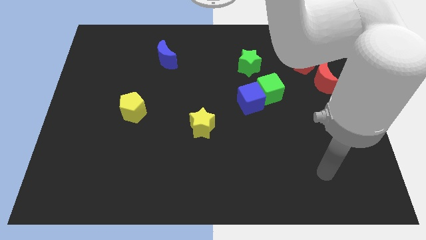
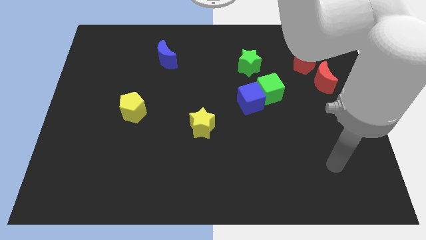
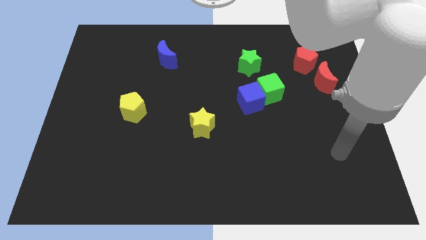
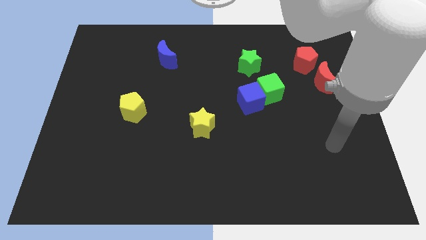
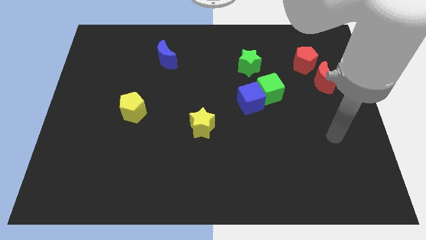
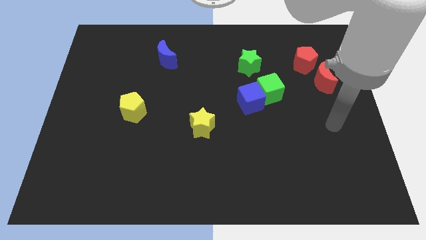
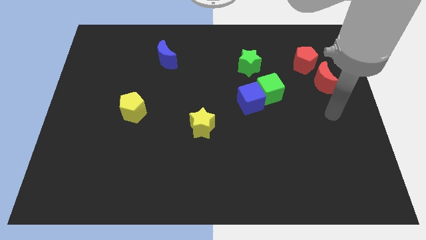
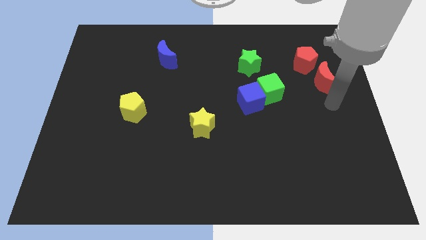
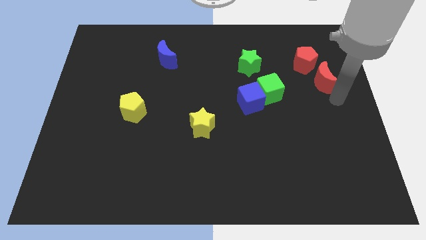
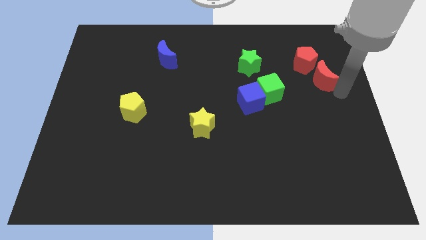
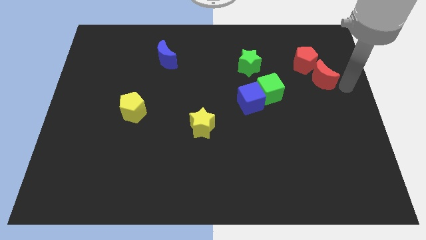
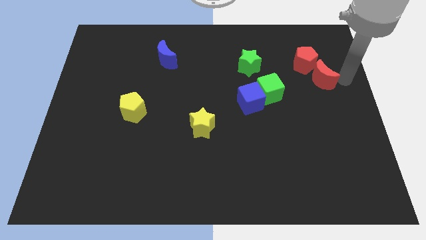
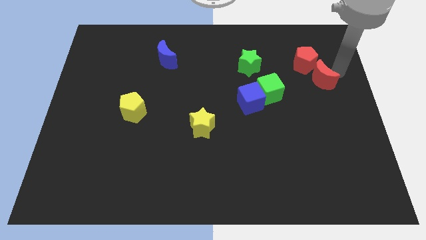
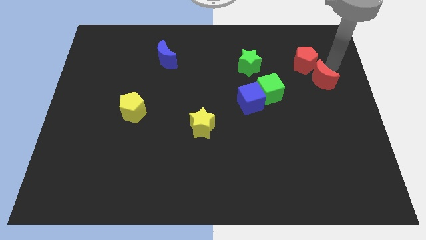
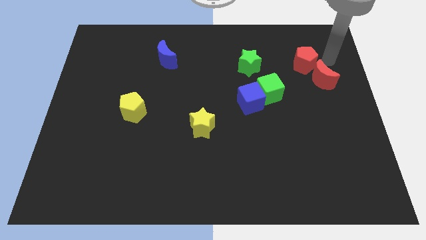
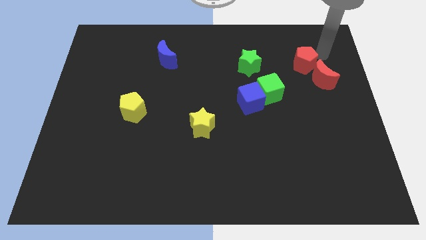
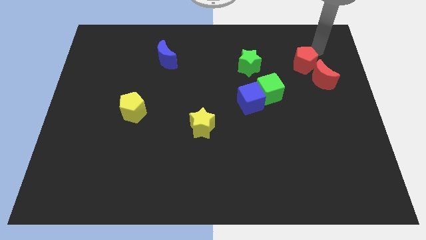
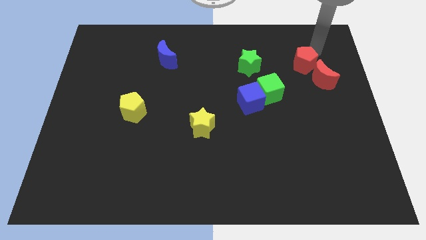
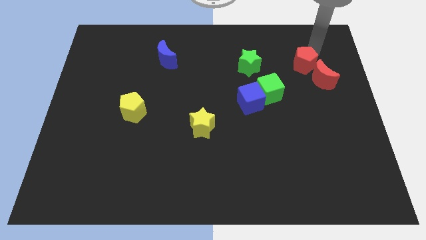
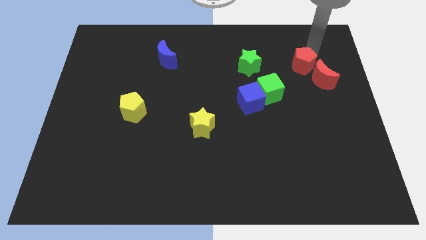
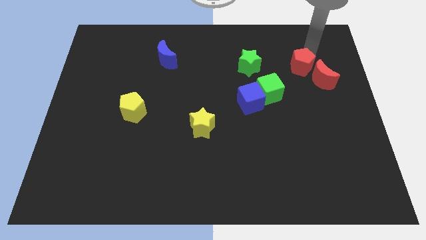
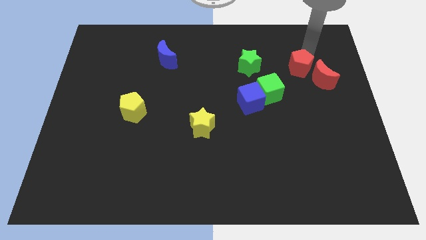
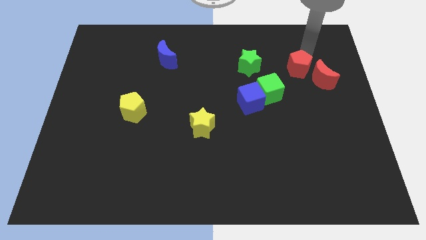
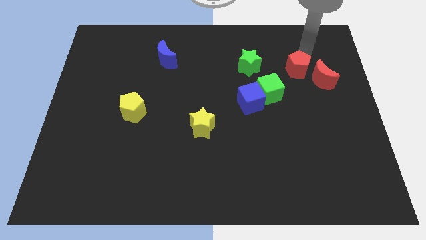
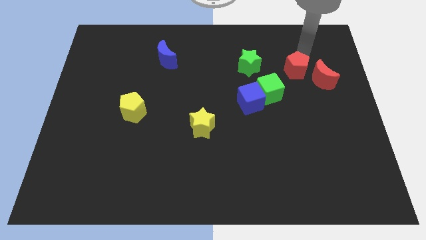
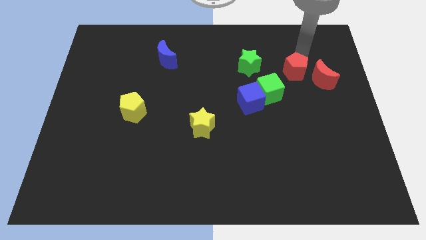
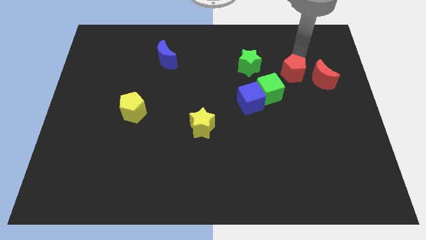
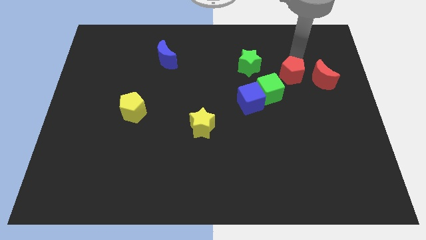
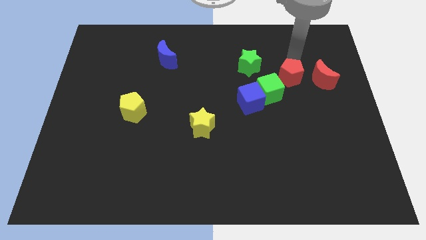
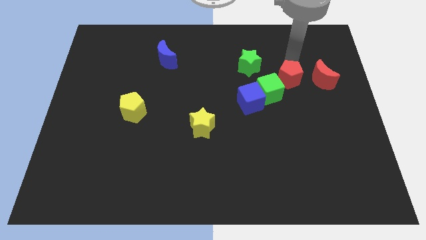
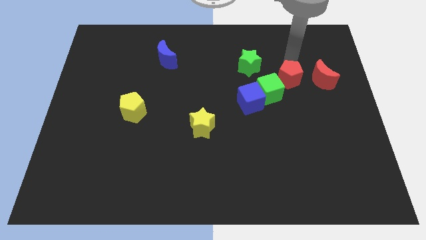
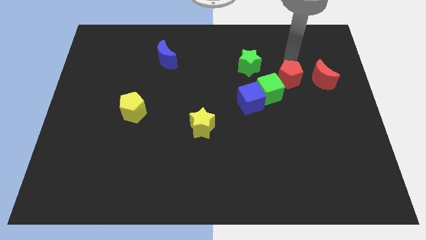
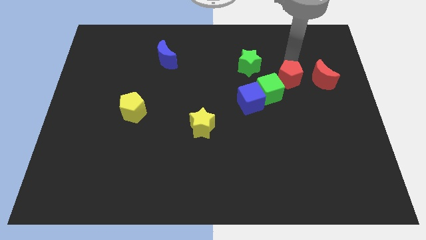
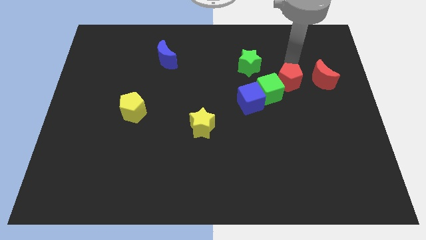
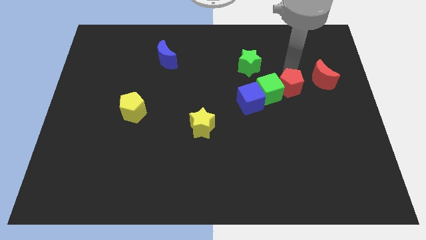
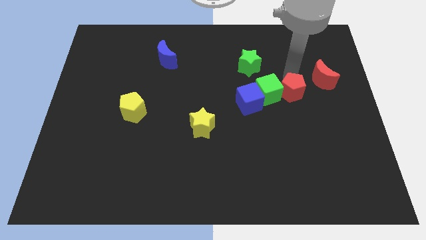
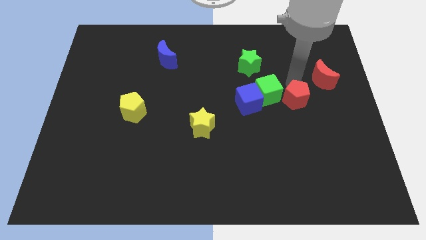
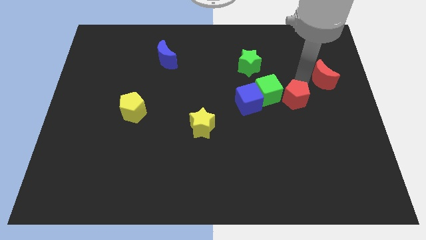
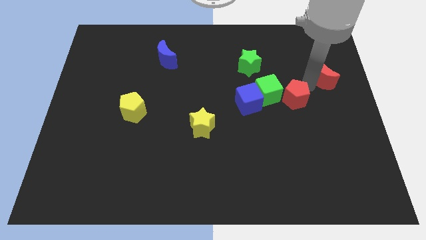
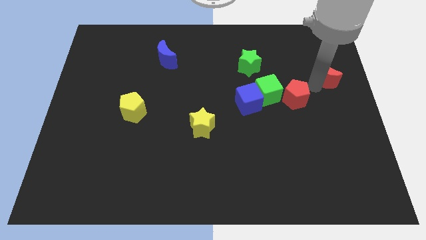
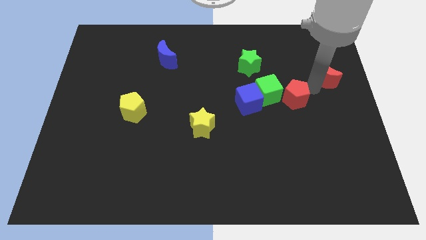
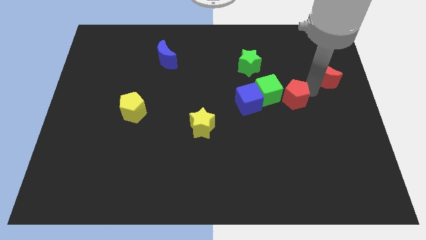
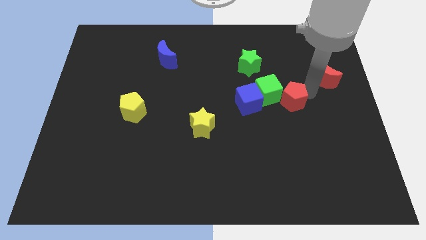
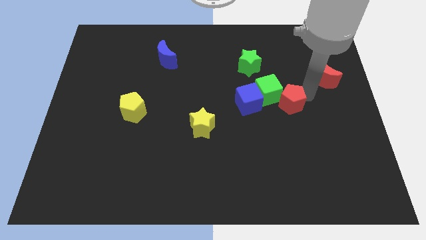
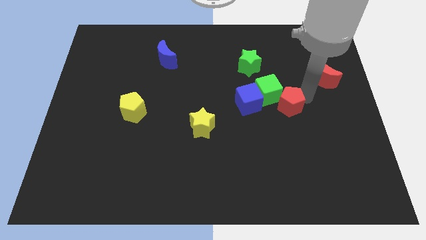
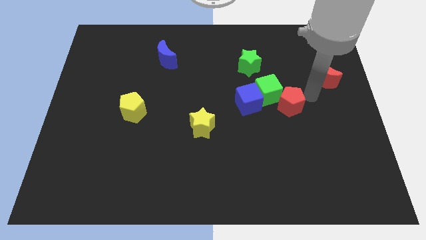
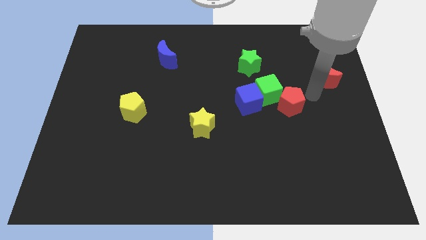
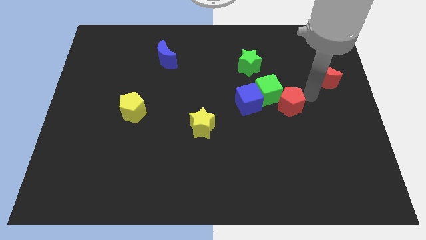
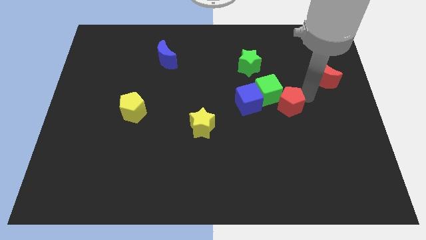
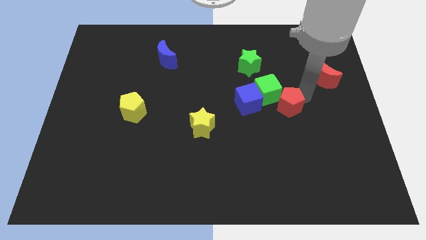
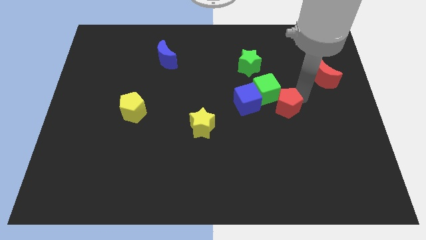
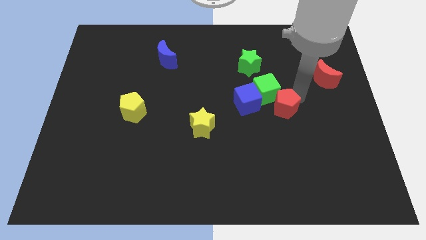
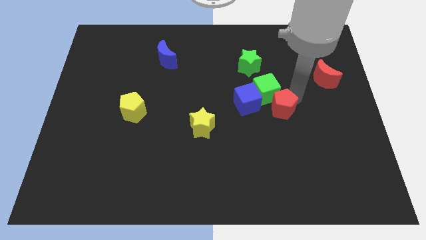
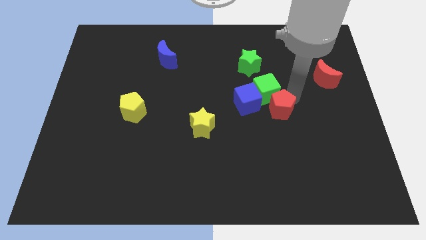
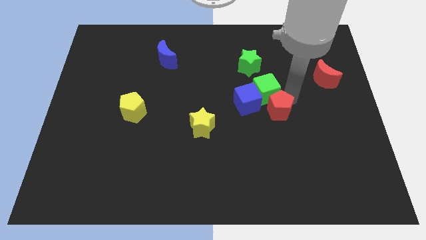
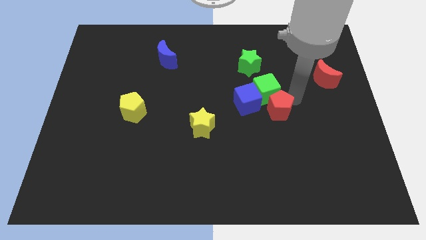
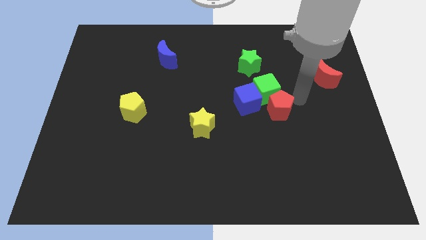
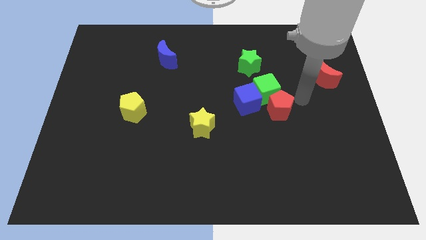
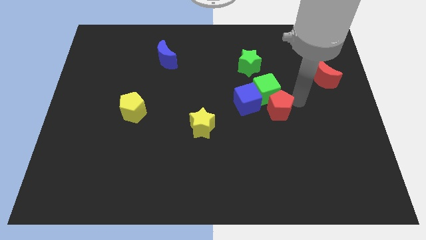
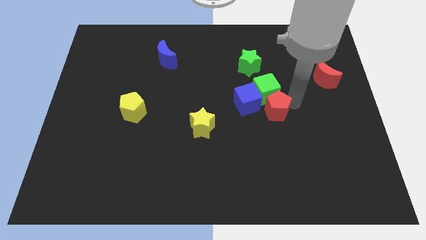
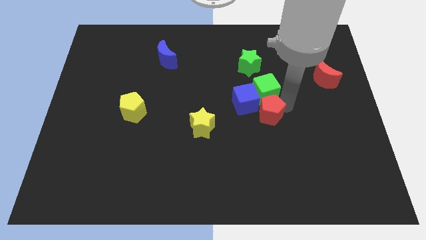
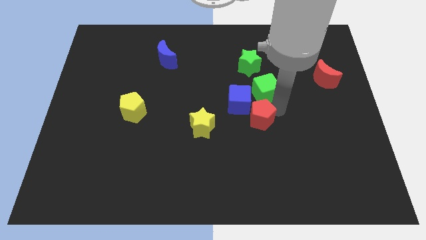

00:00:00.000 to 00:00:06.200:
slide the red pentagon downwards and then to the left

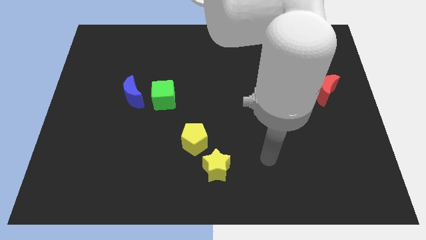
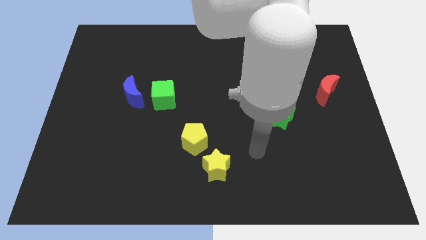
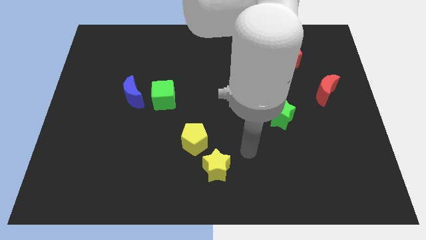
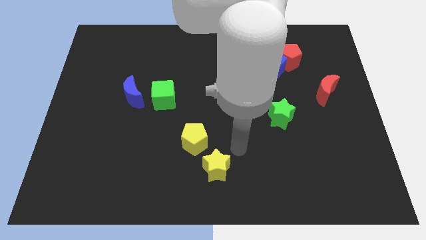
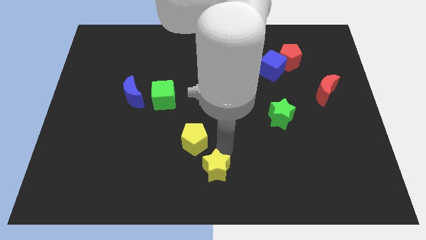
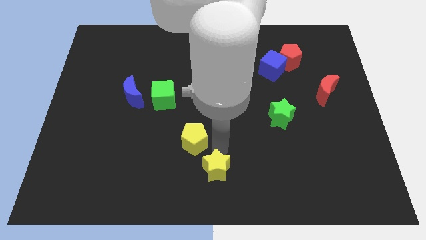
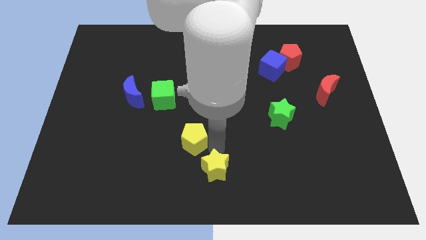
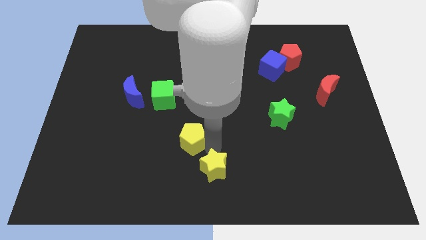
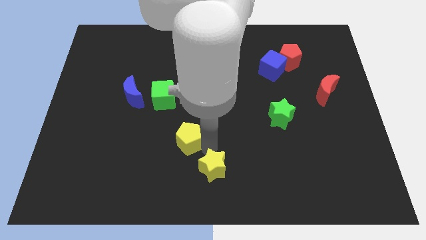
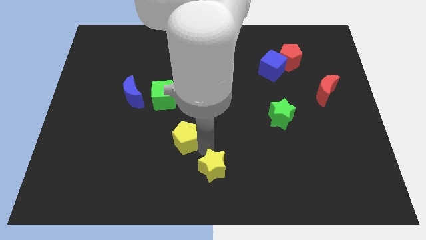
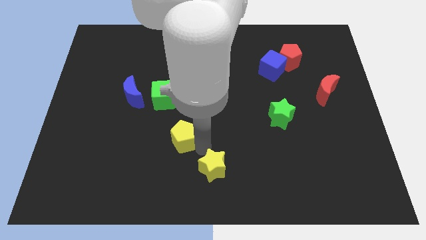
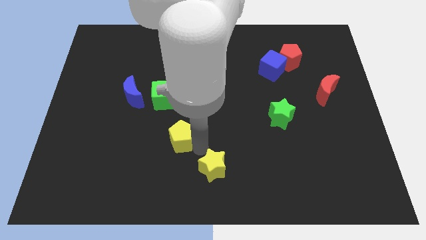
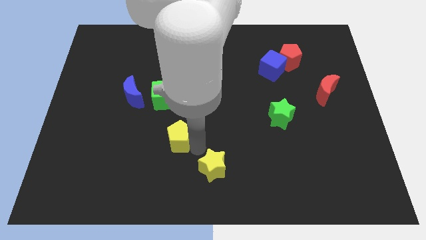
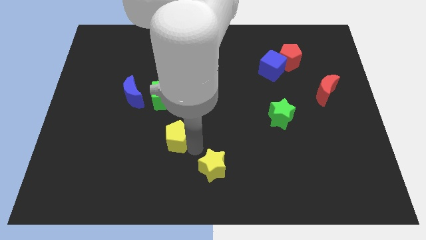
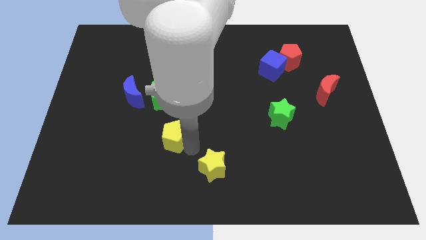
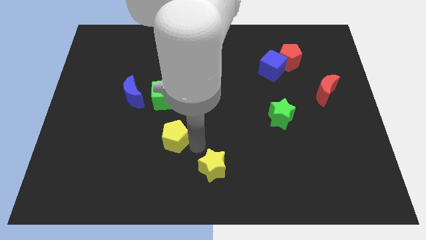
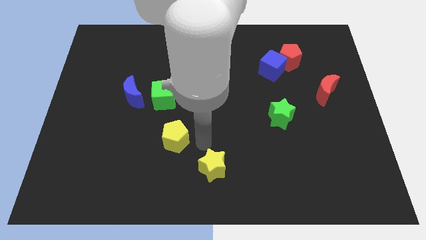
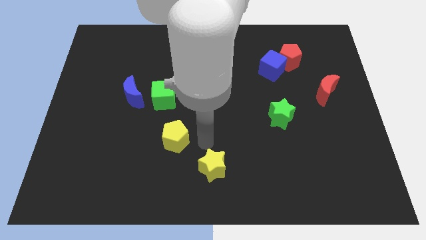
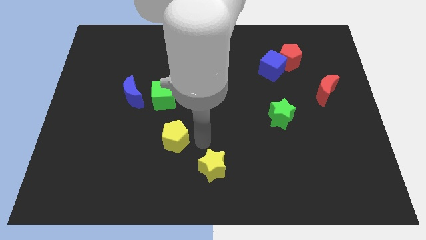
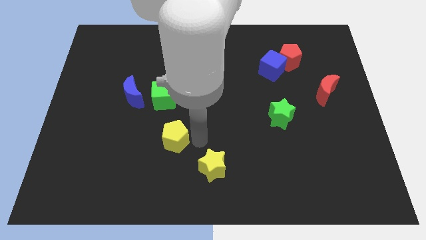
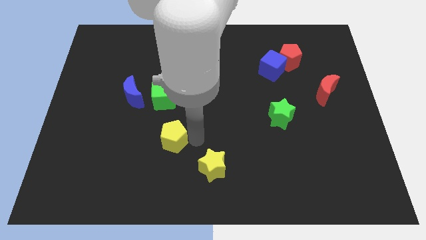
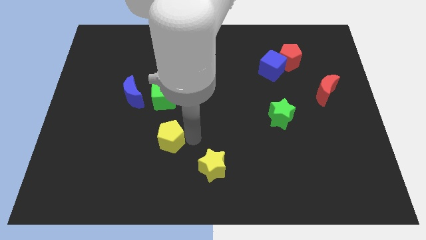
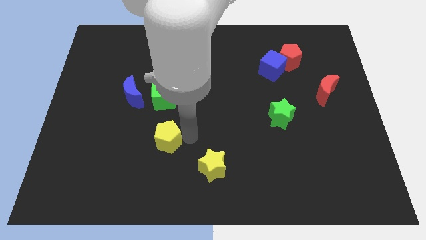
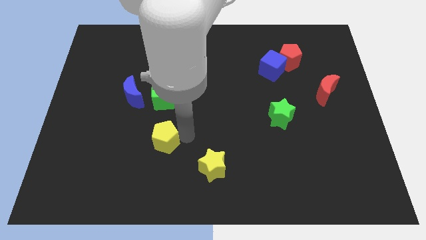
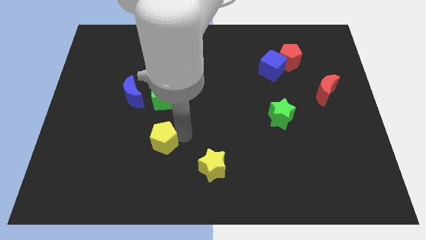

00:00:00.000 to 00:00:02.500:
slightly slide the yellow pentagon to the left
